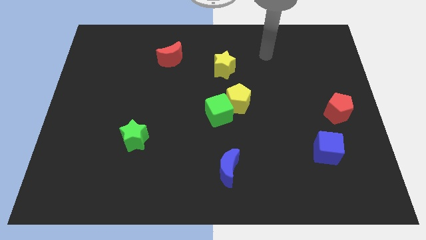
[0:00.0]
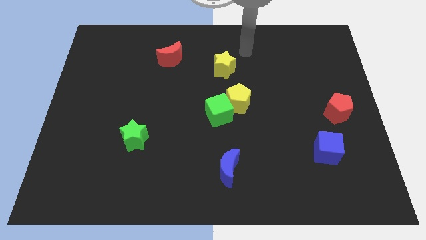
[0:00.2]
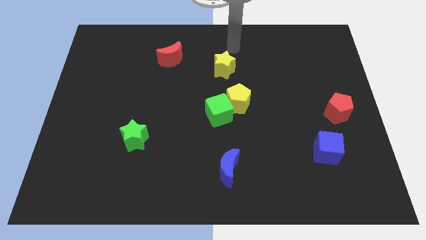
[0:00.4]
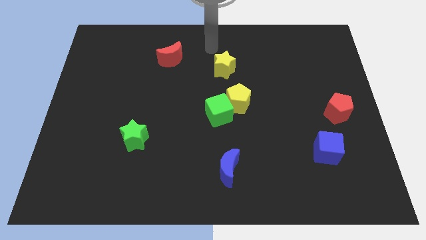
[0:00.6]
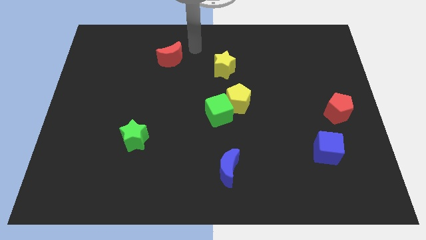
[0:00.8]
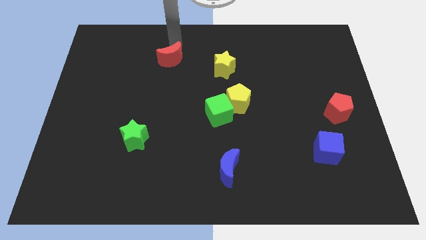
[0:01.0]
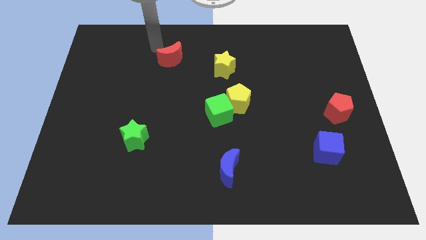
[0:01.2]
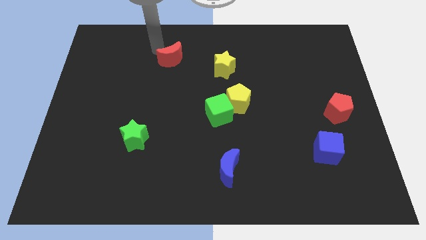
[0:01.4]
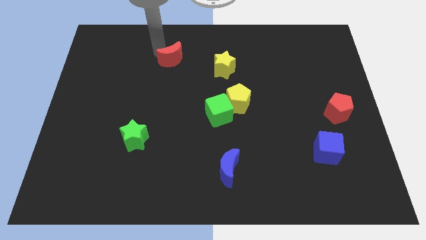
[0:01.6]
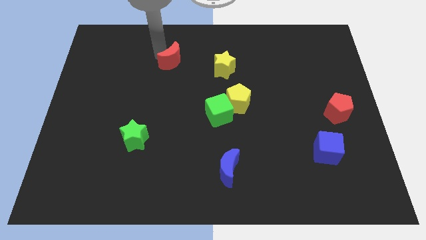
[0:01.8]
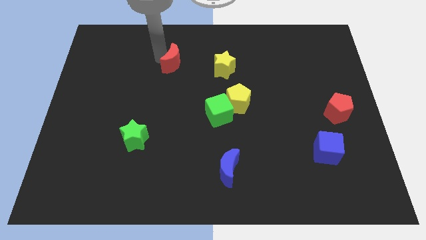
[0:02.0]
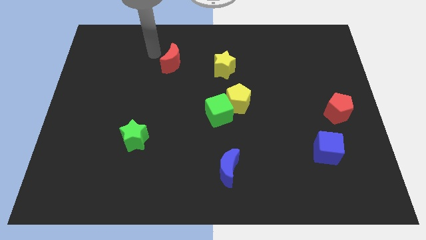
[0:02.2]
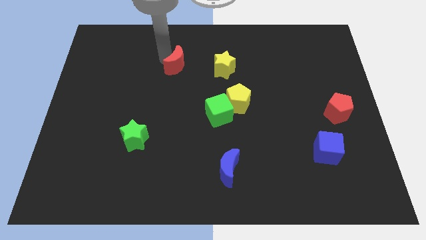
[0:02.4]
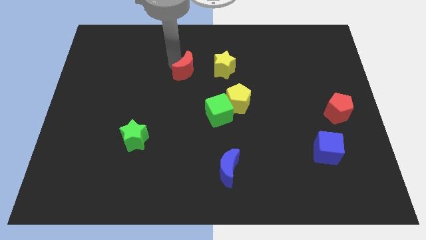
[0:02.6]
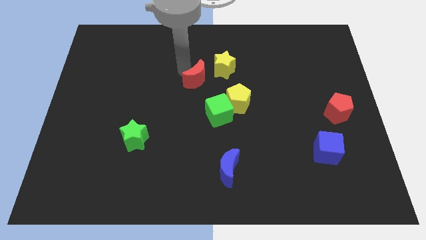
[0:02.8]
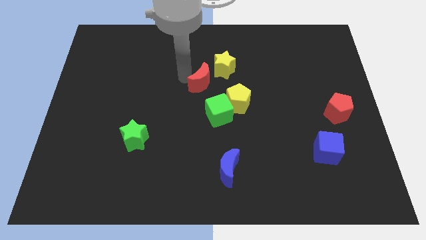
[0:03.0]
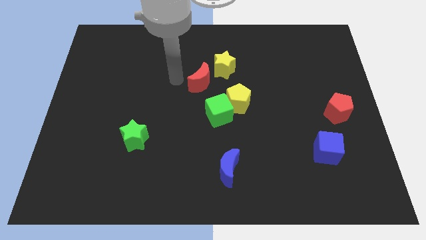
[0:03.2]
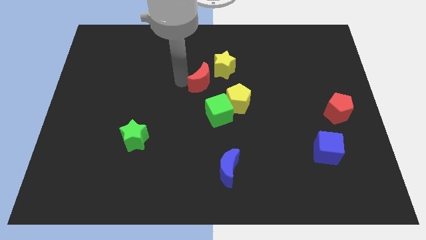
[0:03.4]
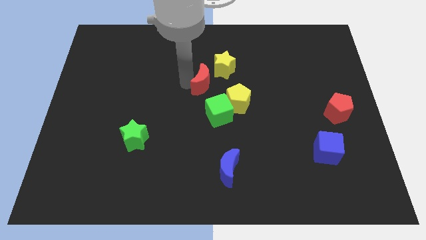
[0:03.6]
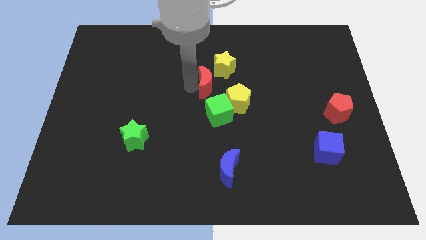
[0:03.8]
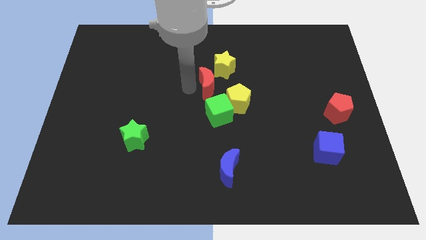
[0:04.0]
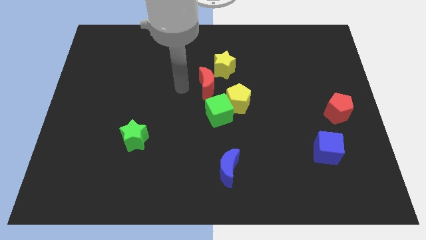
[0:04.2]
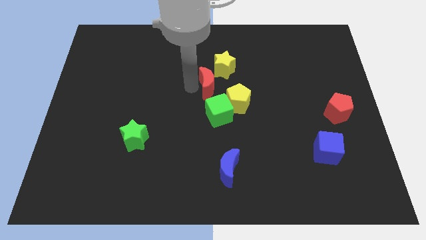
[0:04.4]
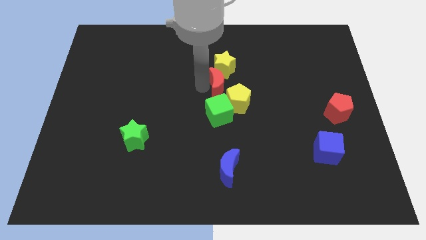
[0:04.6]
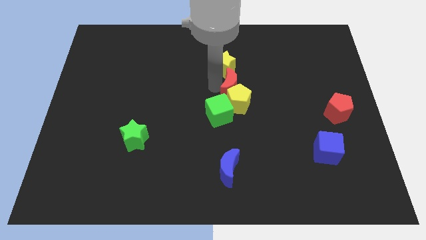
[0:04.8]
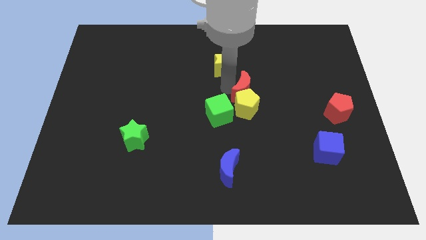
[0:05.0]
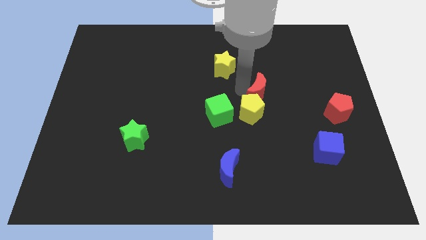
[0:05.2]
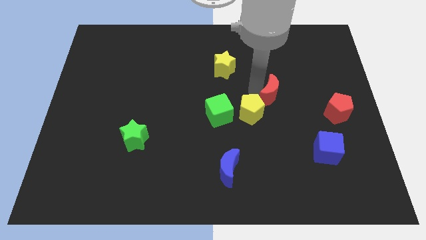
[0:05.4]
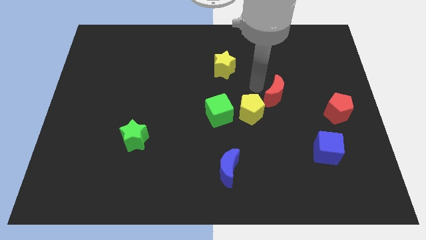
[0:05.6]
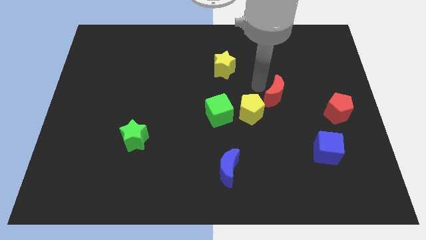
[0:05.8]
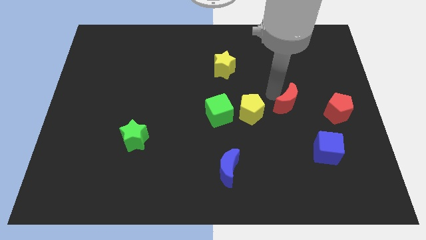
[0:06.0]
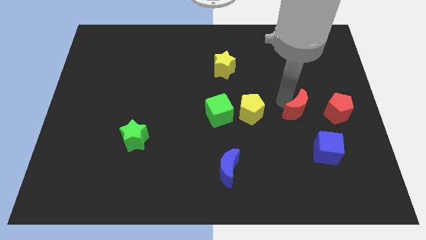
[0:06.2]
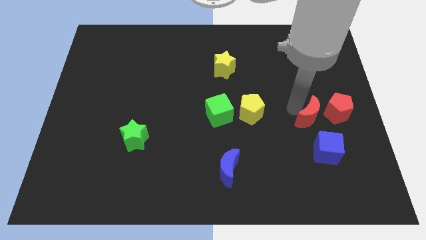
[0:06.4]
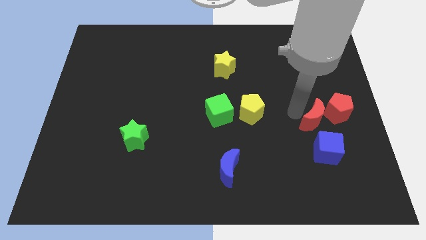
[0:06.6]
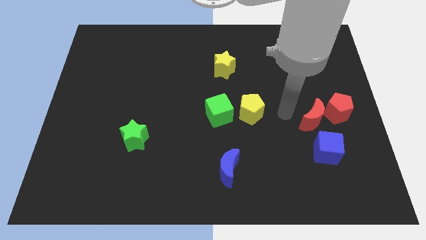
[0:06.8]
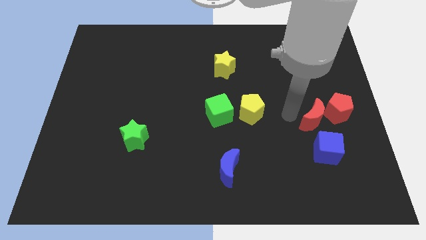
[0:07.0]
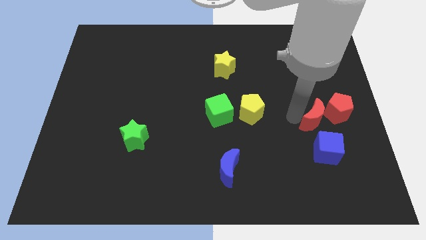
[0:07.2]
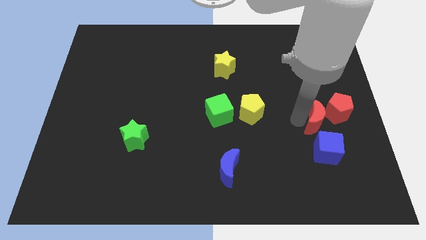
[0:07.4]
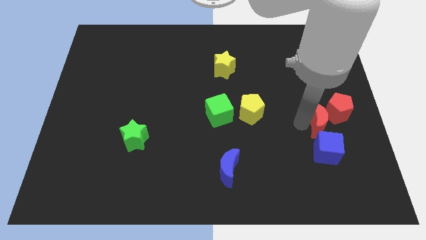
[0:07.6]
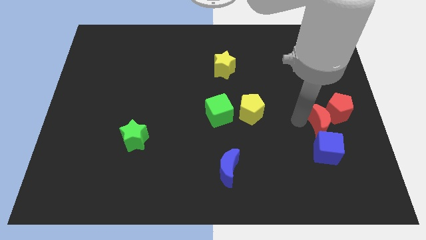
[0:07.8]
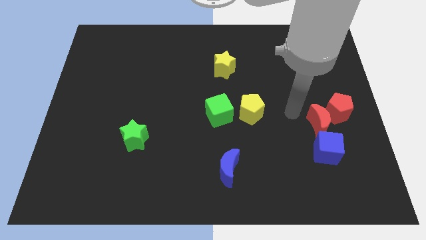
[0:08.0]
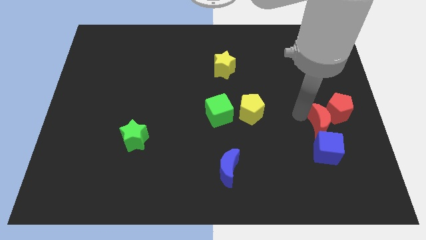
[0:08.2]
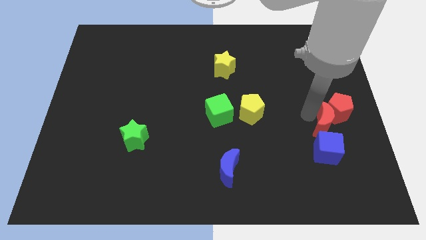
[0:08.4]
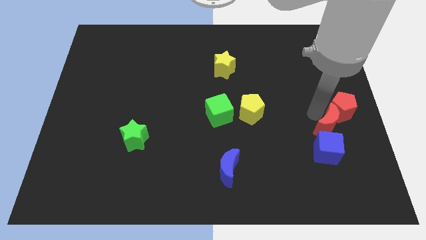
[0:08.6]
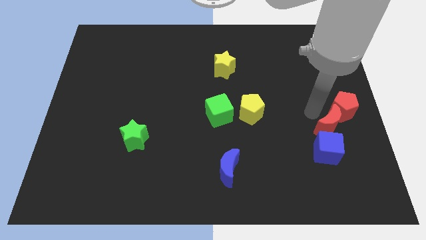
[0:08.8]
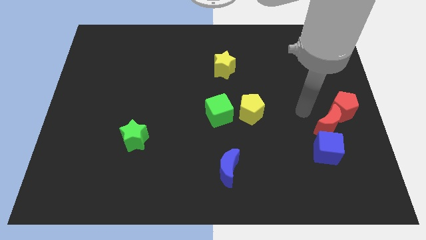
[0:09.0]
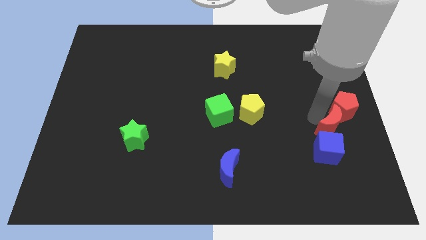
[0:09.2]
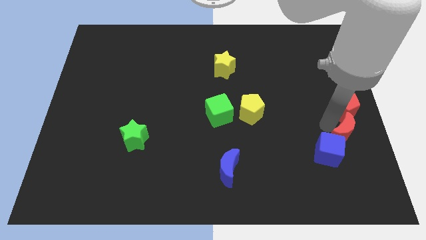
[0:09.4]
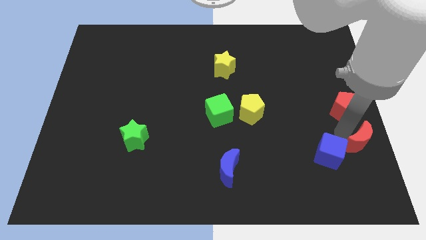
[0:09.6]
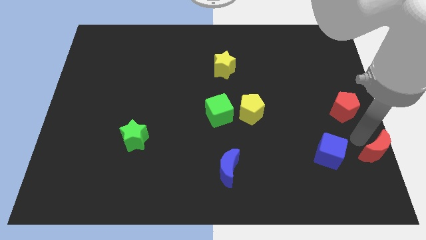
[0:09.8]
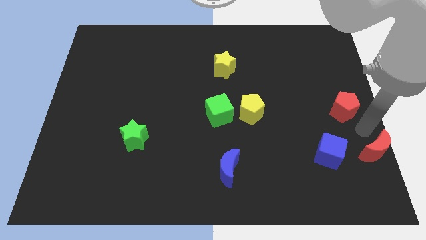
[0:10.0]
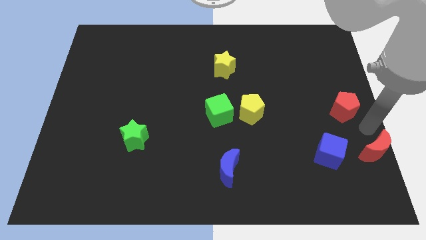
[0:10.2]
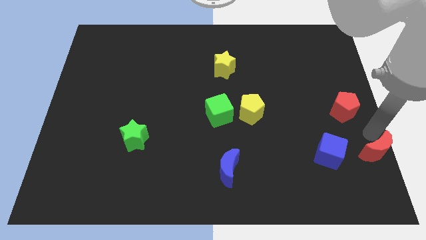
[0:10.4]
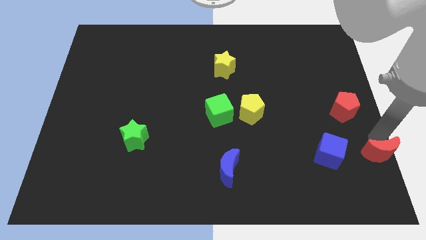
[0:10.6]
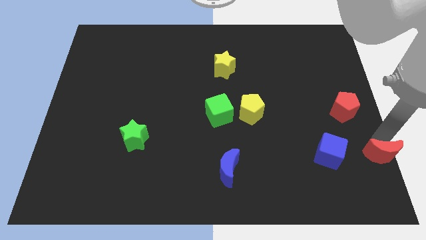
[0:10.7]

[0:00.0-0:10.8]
push the red moon to the bottom right of the board

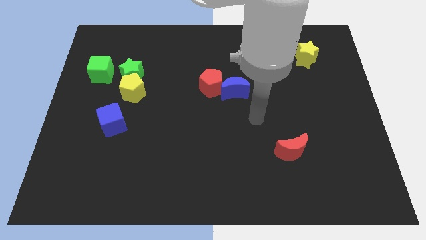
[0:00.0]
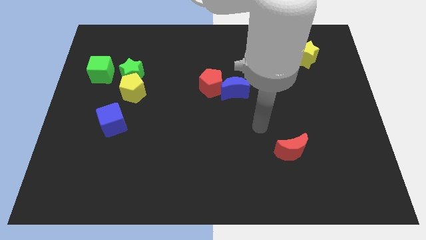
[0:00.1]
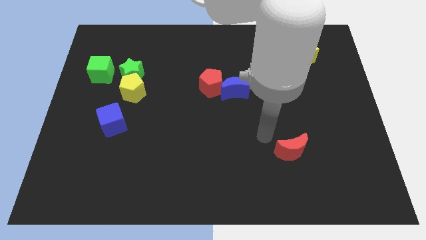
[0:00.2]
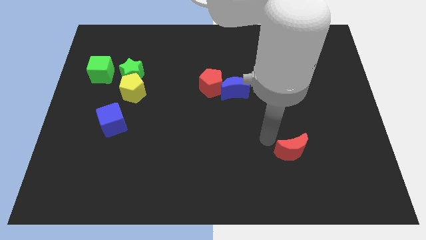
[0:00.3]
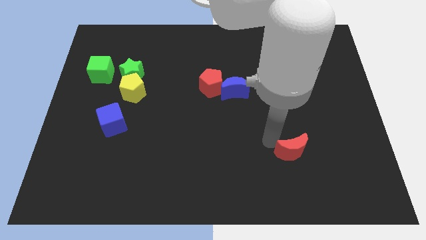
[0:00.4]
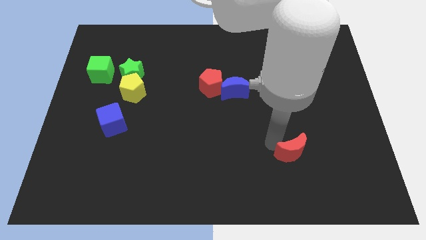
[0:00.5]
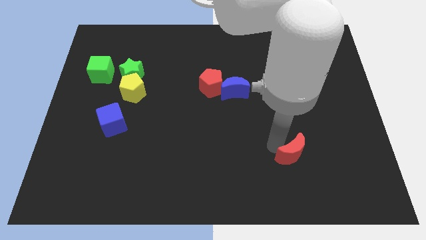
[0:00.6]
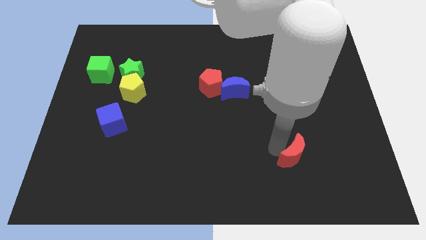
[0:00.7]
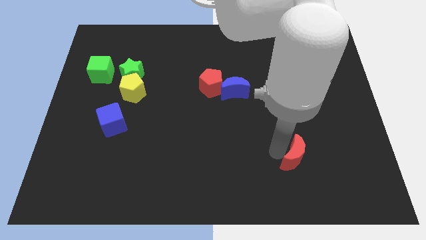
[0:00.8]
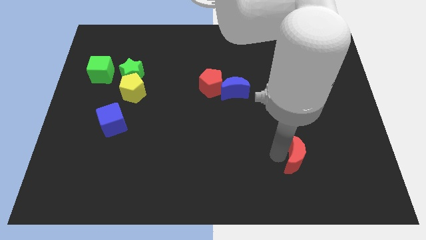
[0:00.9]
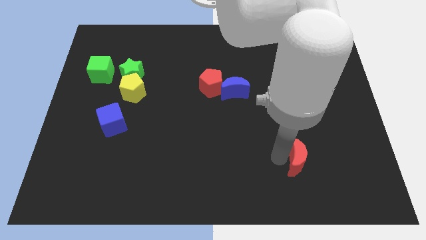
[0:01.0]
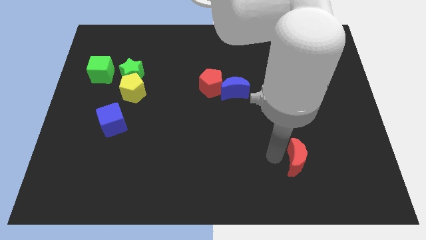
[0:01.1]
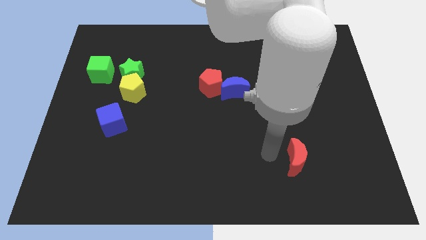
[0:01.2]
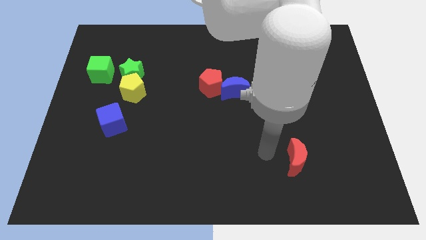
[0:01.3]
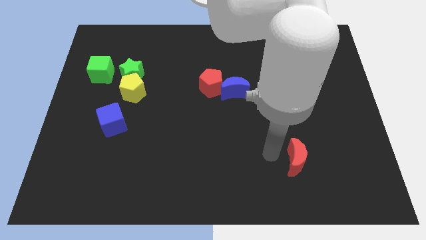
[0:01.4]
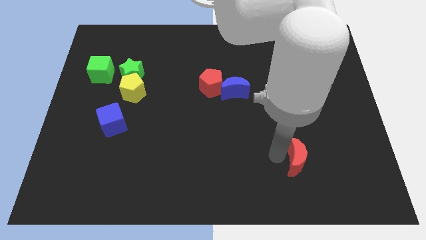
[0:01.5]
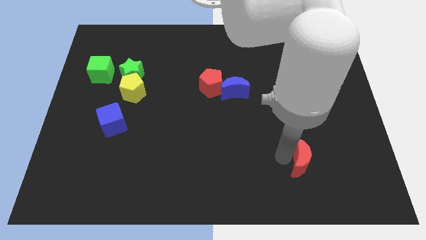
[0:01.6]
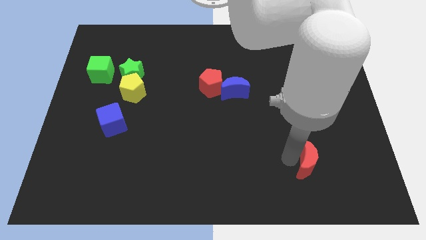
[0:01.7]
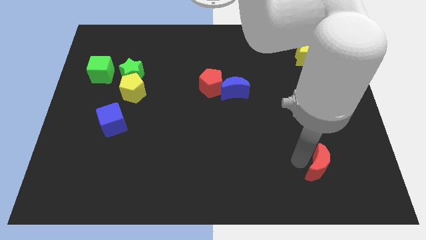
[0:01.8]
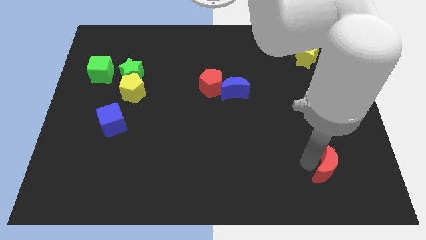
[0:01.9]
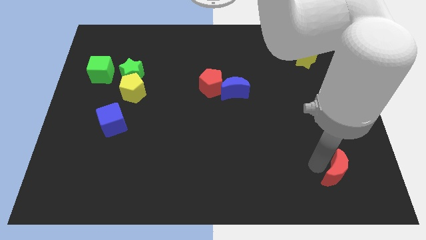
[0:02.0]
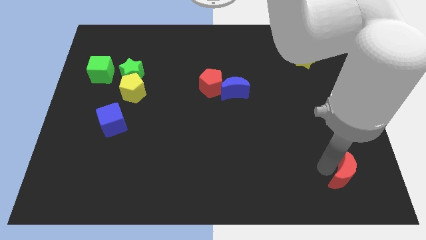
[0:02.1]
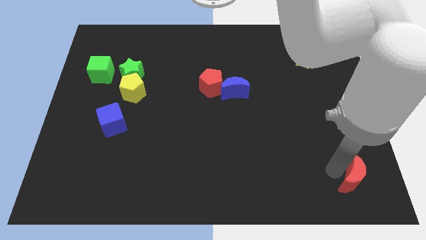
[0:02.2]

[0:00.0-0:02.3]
put the red moon to the bottom right of the board
